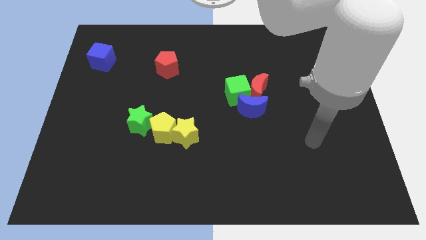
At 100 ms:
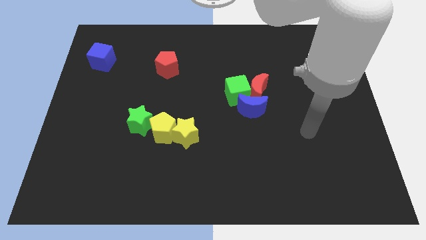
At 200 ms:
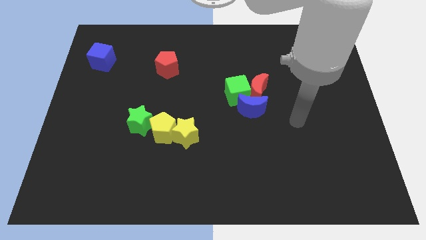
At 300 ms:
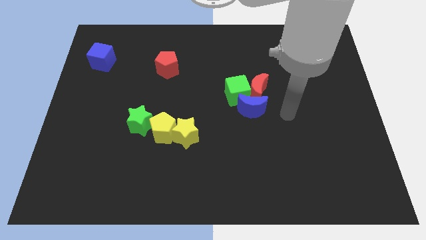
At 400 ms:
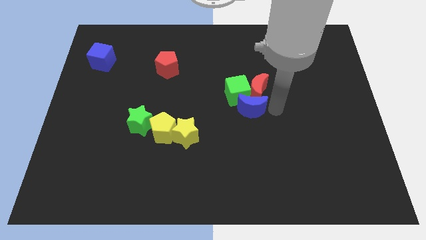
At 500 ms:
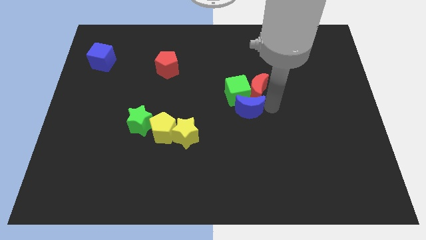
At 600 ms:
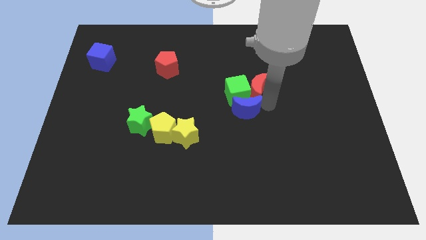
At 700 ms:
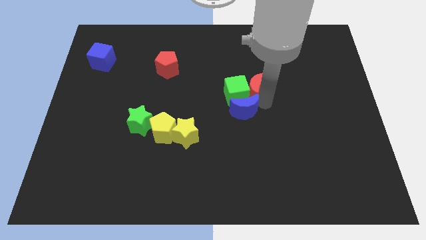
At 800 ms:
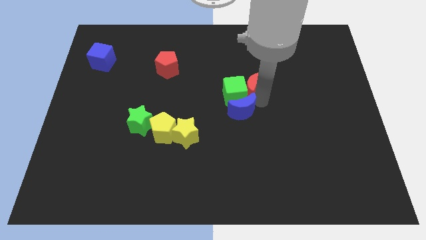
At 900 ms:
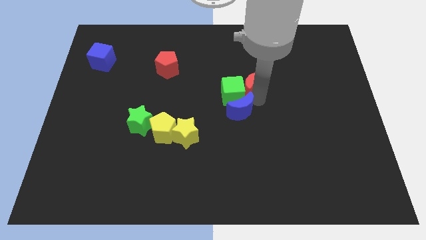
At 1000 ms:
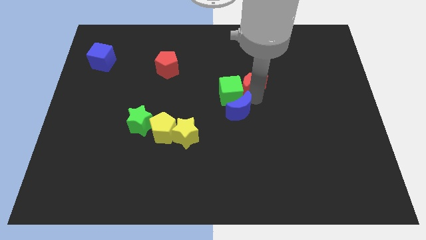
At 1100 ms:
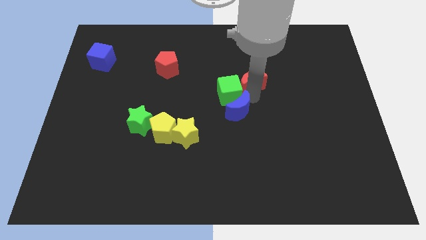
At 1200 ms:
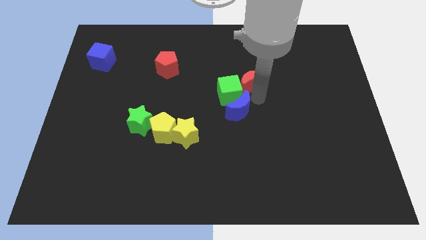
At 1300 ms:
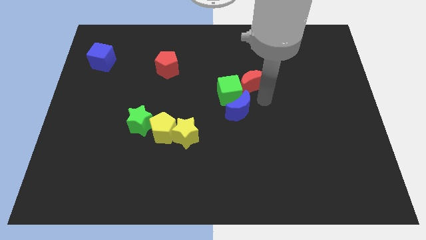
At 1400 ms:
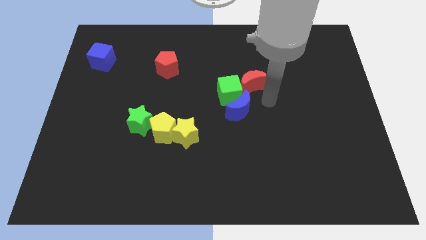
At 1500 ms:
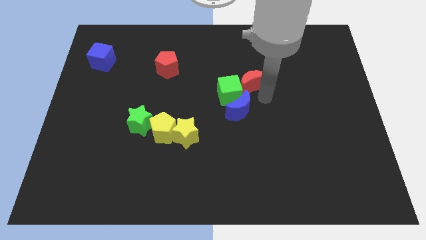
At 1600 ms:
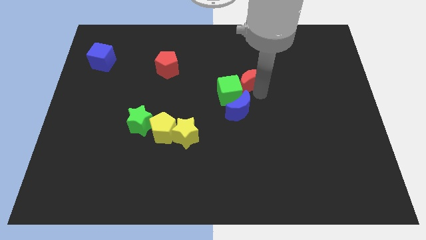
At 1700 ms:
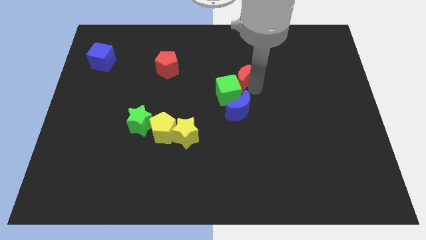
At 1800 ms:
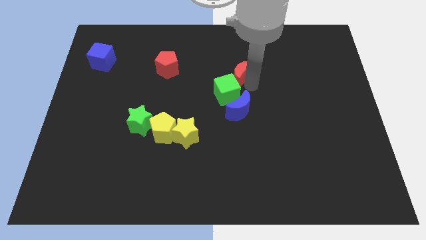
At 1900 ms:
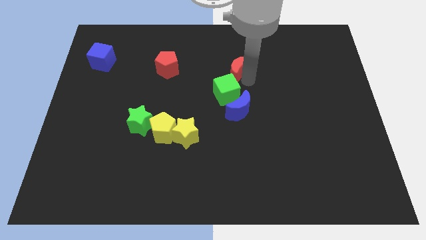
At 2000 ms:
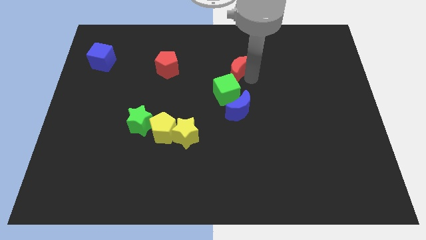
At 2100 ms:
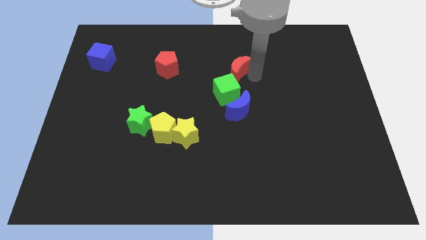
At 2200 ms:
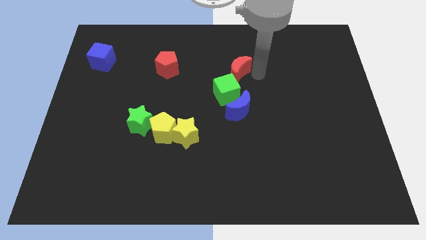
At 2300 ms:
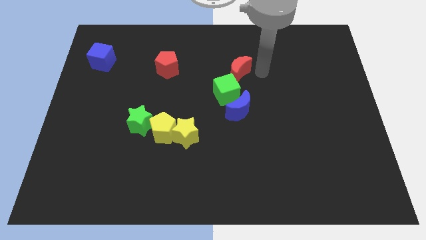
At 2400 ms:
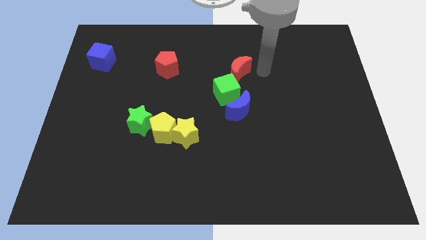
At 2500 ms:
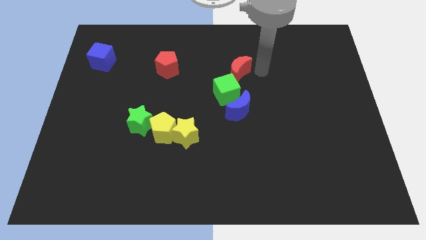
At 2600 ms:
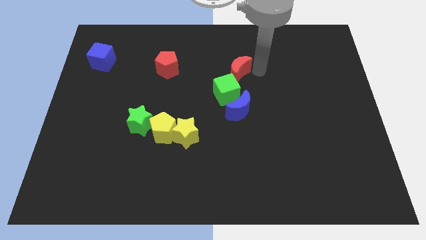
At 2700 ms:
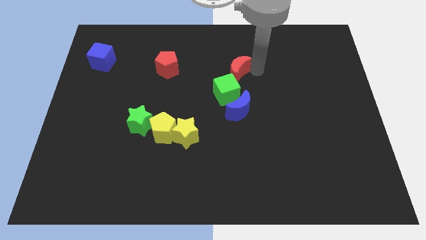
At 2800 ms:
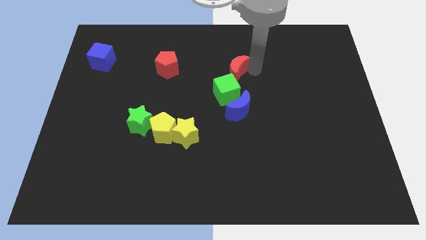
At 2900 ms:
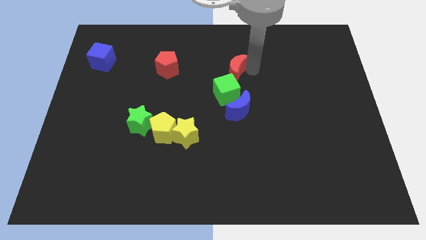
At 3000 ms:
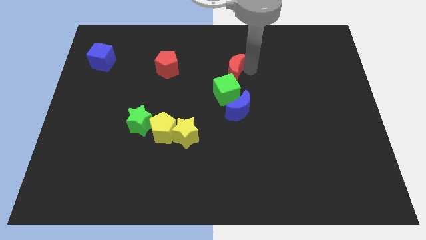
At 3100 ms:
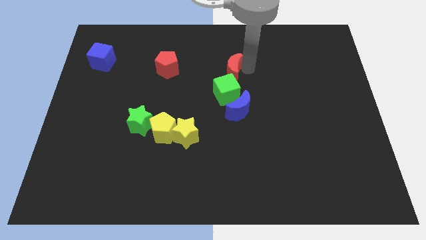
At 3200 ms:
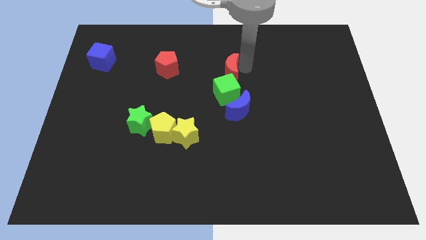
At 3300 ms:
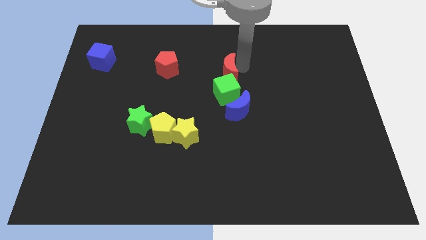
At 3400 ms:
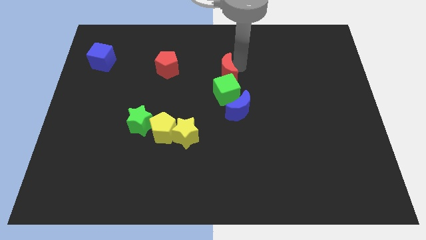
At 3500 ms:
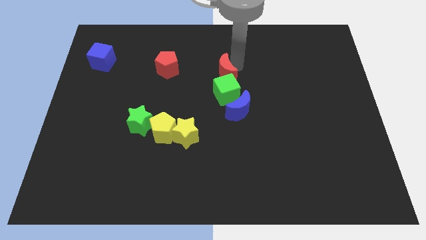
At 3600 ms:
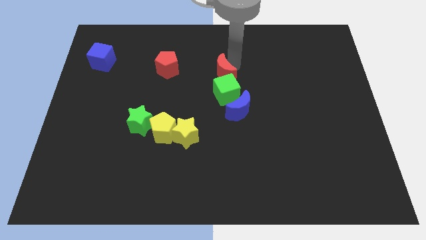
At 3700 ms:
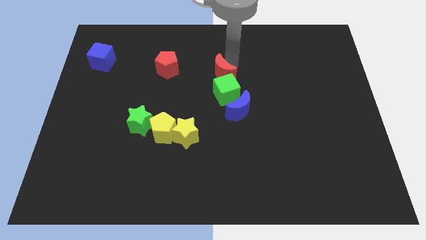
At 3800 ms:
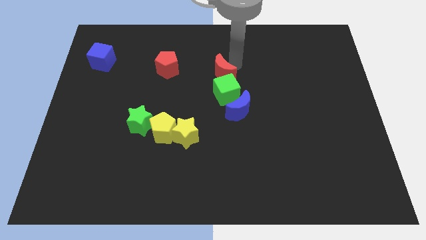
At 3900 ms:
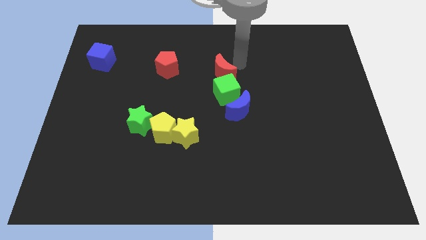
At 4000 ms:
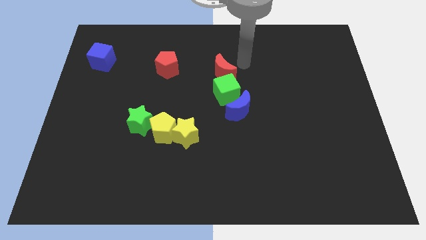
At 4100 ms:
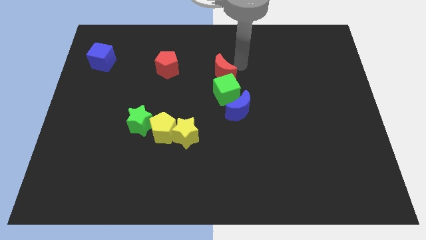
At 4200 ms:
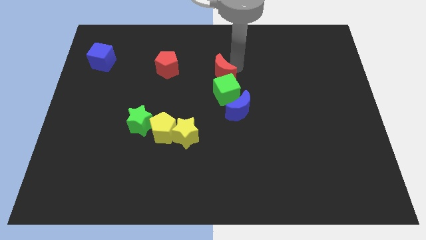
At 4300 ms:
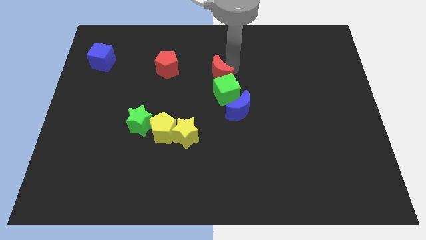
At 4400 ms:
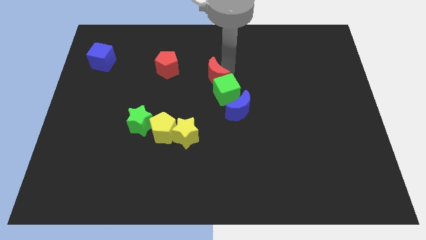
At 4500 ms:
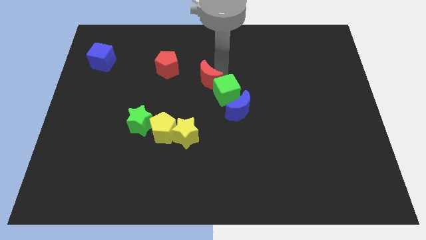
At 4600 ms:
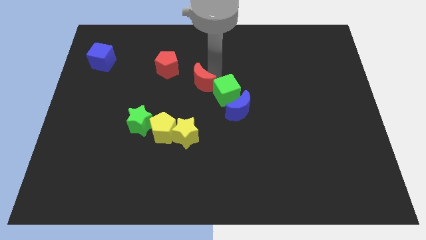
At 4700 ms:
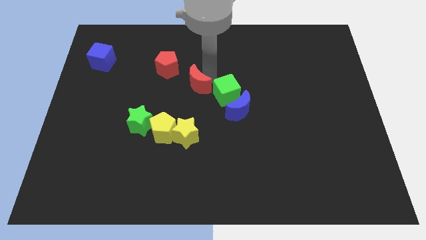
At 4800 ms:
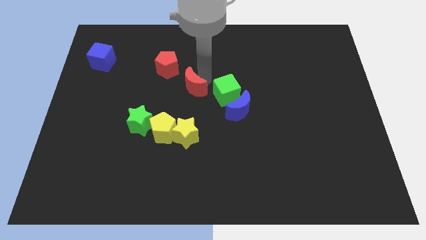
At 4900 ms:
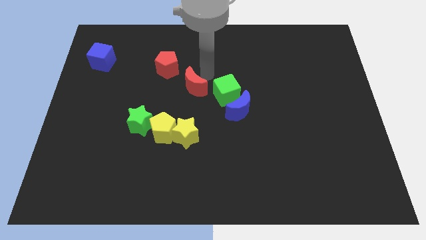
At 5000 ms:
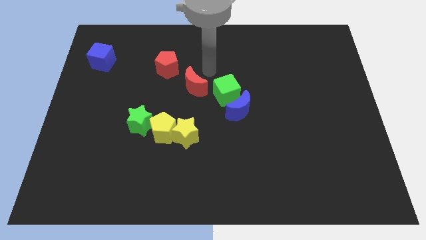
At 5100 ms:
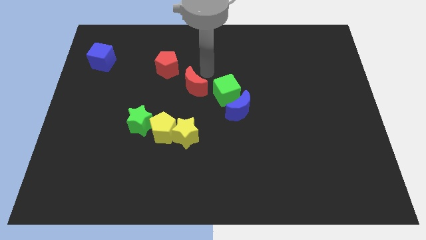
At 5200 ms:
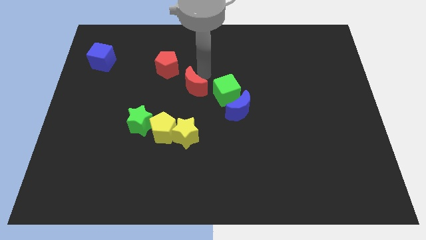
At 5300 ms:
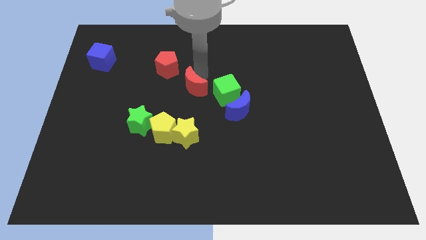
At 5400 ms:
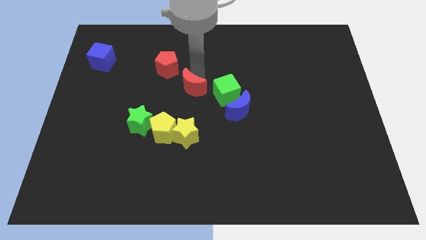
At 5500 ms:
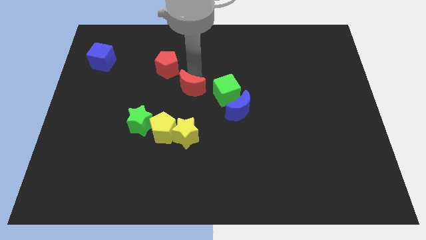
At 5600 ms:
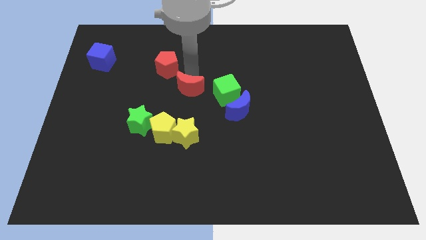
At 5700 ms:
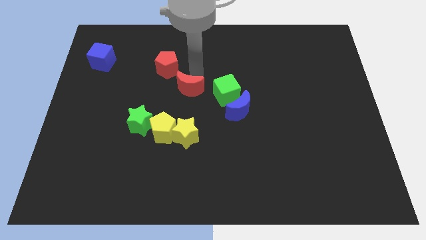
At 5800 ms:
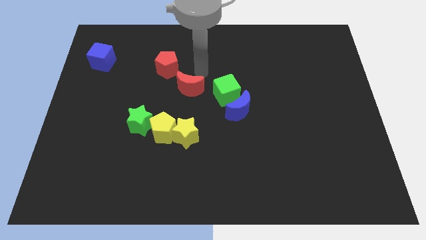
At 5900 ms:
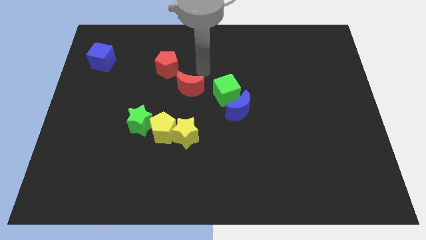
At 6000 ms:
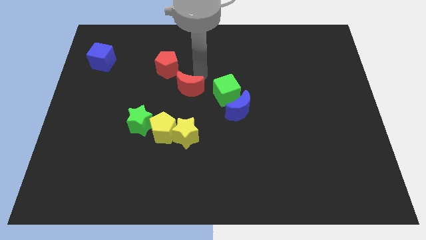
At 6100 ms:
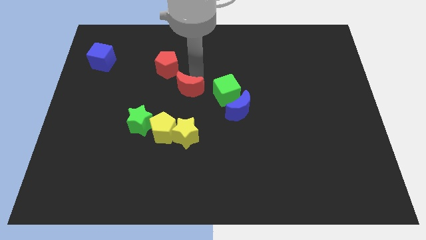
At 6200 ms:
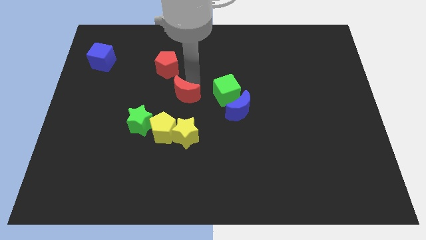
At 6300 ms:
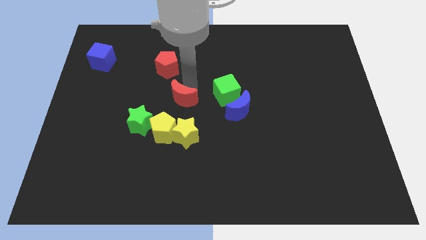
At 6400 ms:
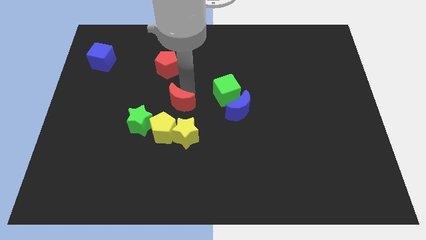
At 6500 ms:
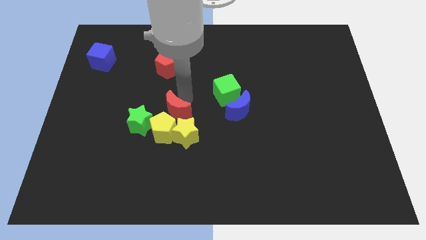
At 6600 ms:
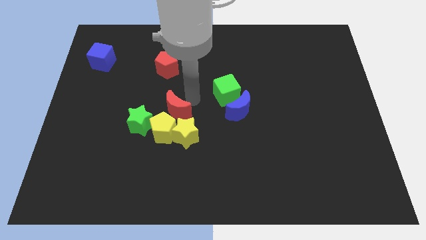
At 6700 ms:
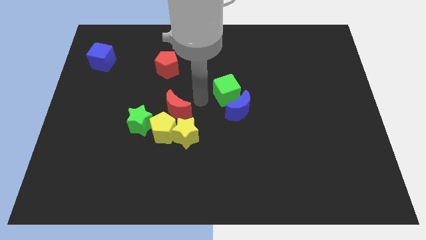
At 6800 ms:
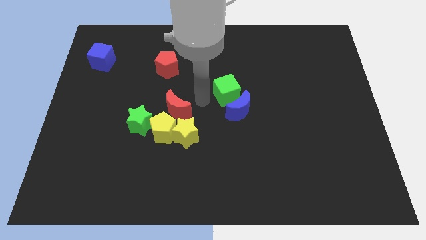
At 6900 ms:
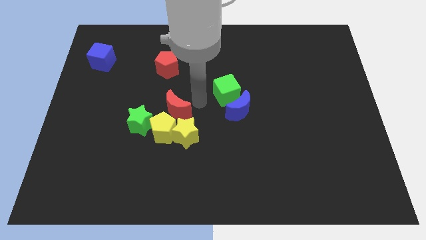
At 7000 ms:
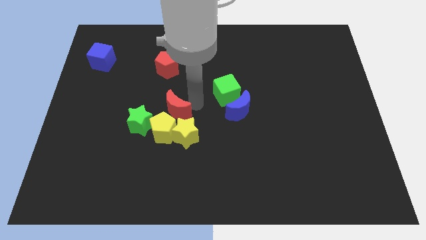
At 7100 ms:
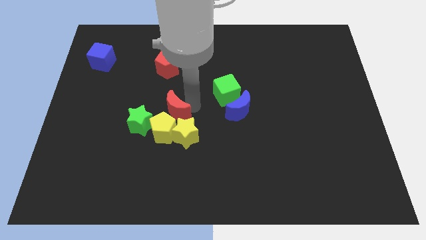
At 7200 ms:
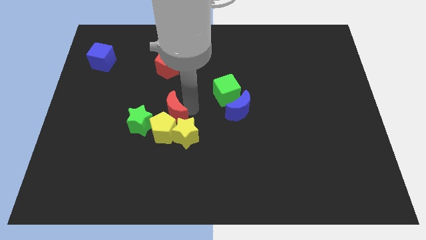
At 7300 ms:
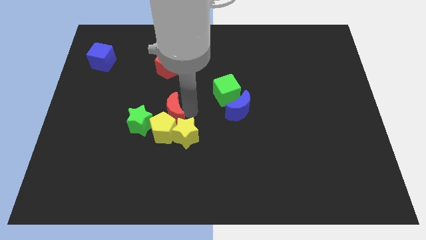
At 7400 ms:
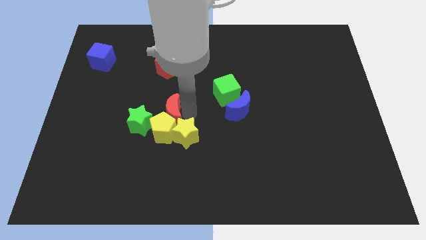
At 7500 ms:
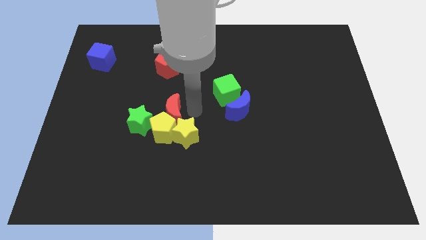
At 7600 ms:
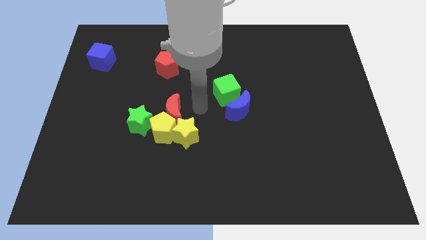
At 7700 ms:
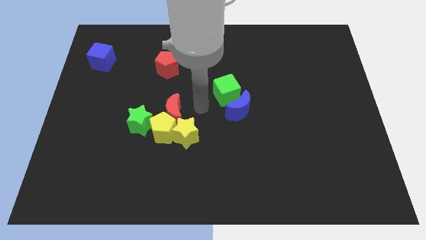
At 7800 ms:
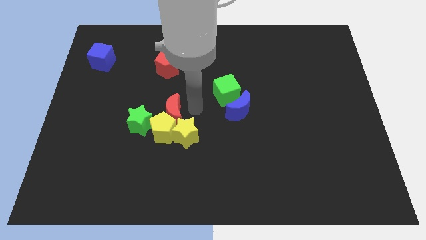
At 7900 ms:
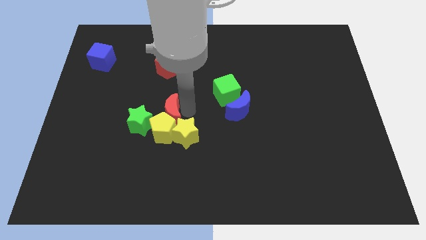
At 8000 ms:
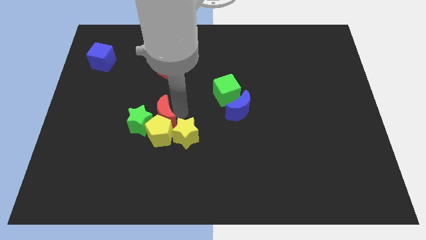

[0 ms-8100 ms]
push the red moon to the green star
